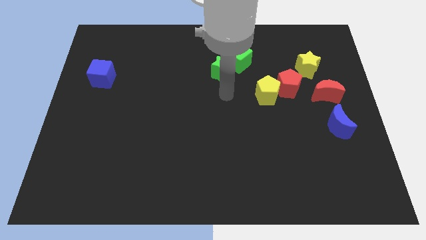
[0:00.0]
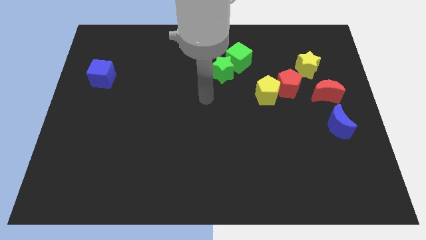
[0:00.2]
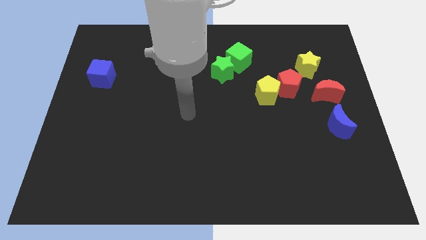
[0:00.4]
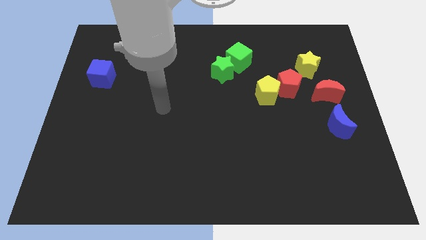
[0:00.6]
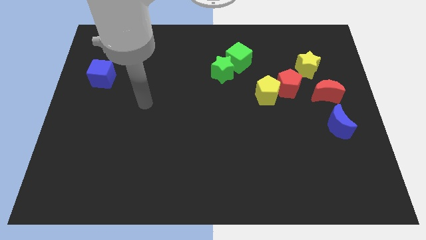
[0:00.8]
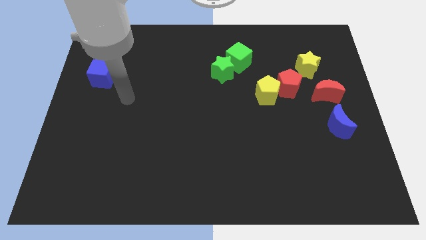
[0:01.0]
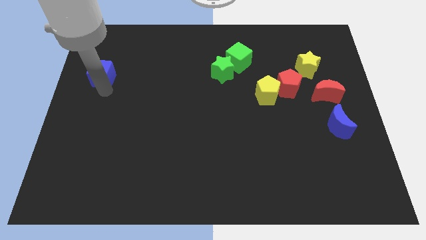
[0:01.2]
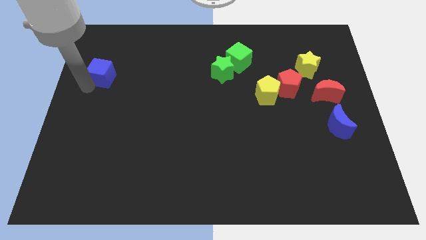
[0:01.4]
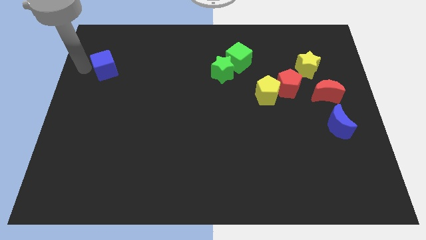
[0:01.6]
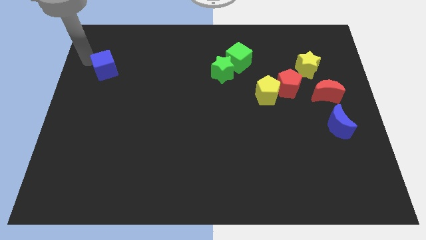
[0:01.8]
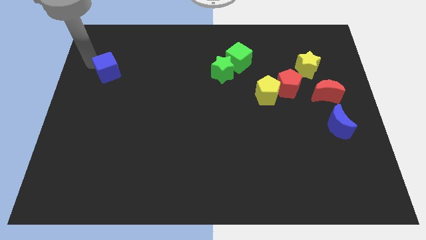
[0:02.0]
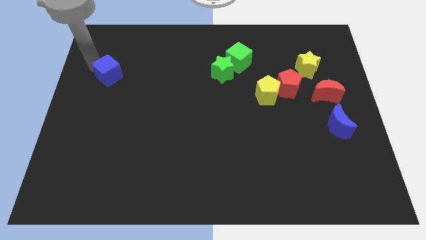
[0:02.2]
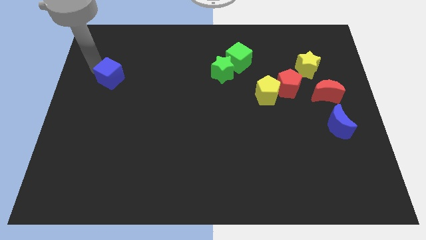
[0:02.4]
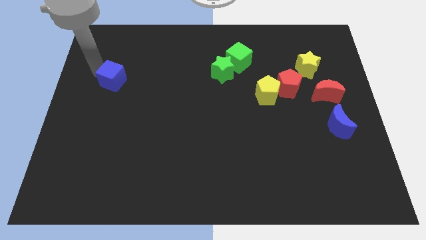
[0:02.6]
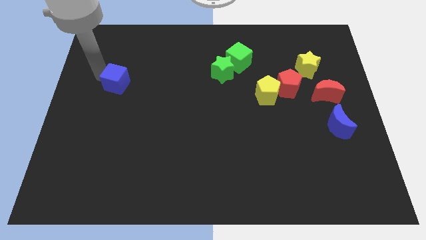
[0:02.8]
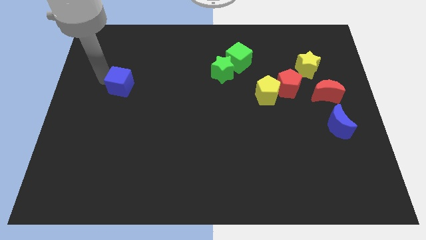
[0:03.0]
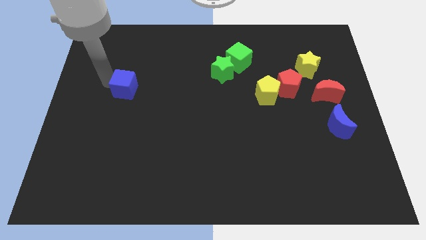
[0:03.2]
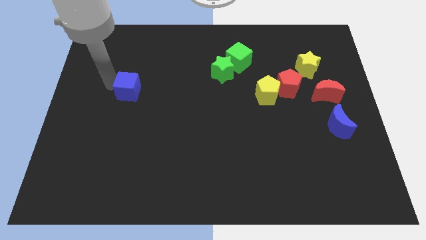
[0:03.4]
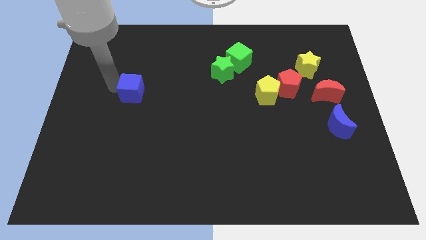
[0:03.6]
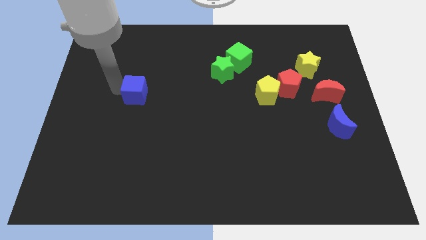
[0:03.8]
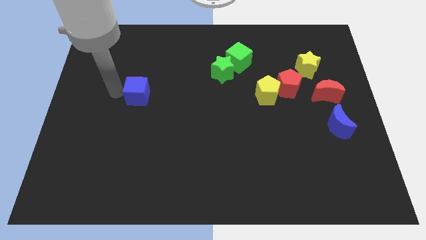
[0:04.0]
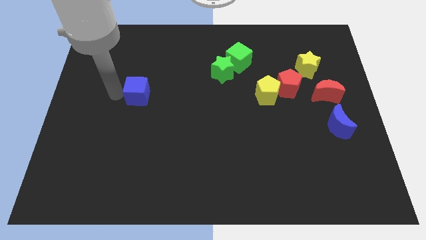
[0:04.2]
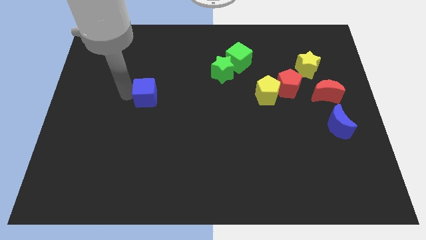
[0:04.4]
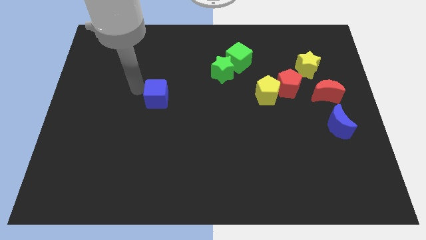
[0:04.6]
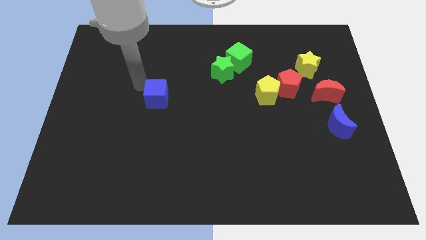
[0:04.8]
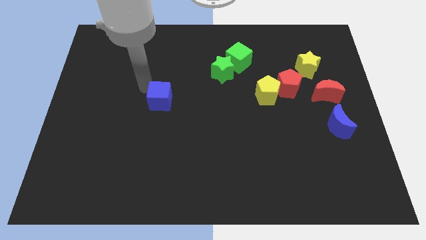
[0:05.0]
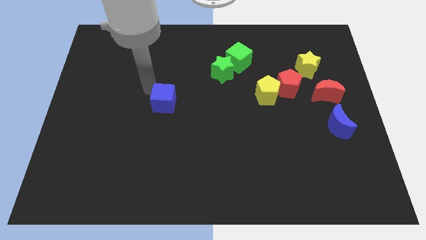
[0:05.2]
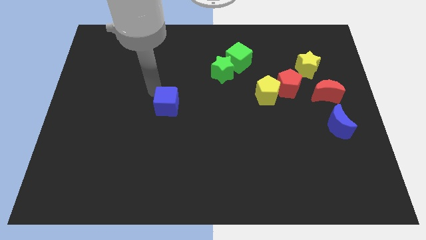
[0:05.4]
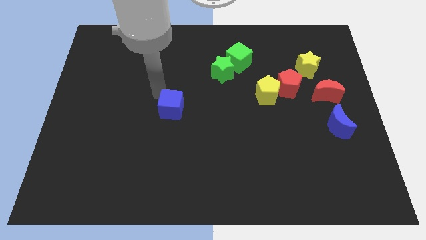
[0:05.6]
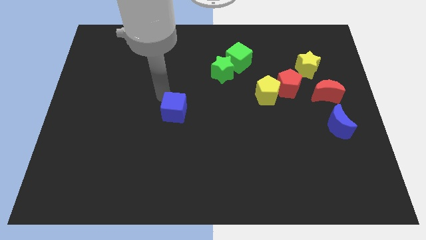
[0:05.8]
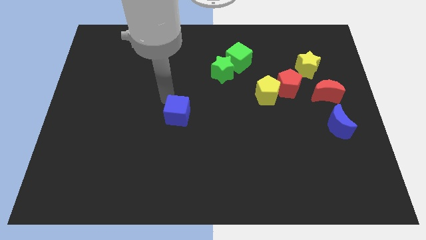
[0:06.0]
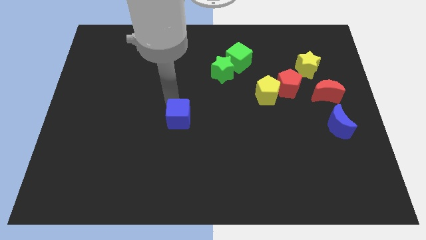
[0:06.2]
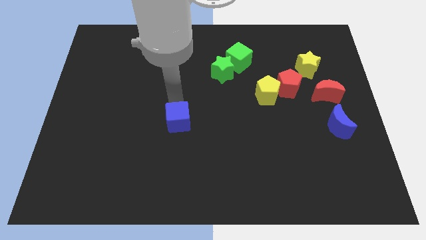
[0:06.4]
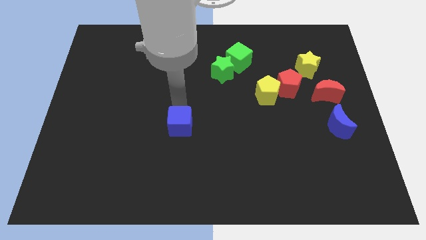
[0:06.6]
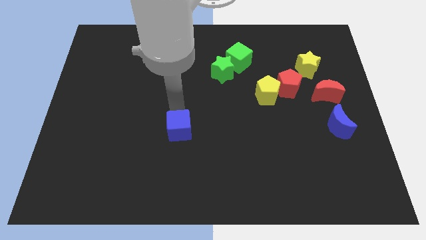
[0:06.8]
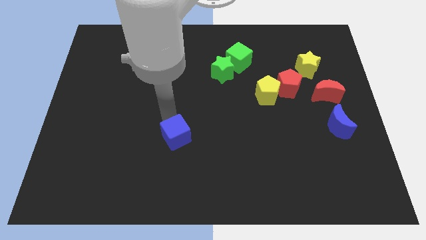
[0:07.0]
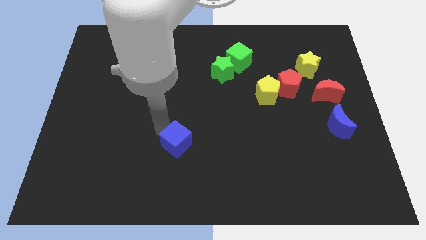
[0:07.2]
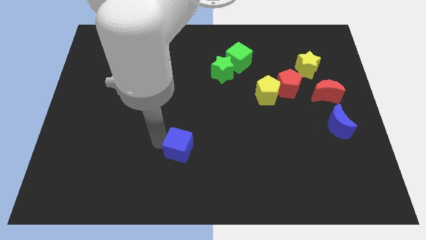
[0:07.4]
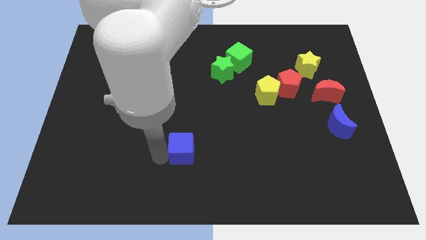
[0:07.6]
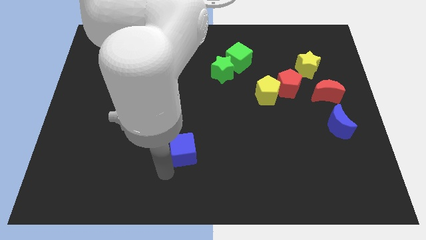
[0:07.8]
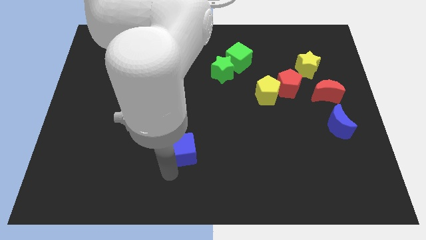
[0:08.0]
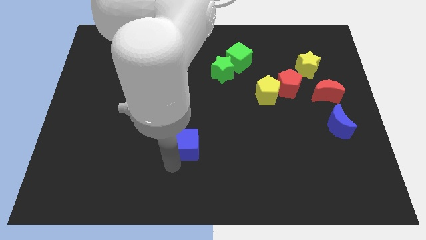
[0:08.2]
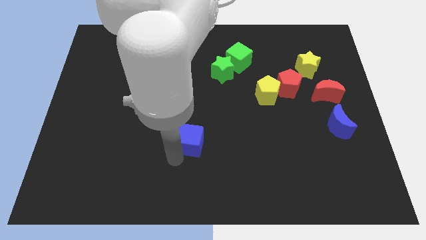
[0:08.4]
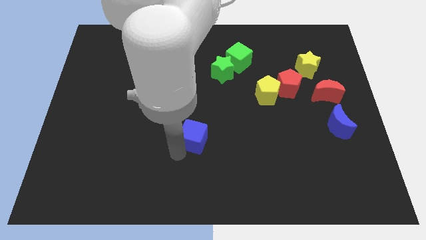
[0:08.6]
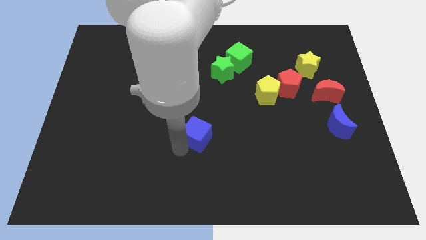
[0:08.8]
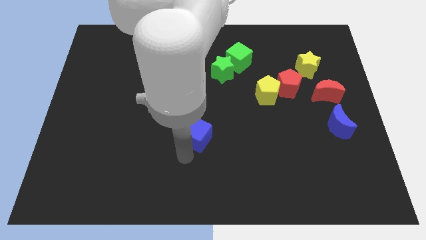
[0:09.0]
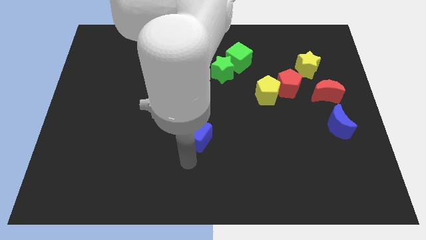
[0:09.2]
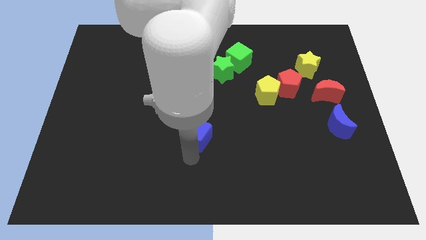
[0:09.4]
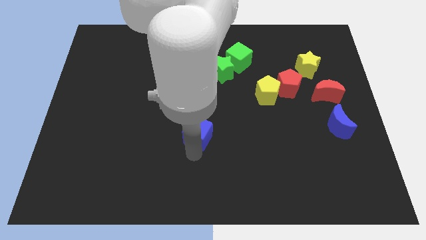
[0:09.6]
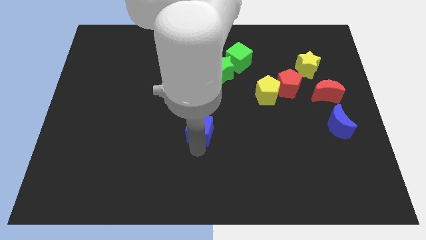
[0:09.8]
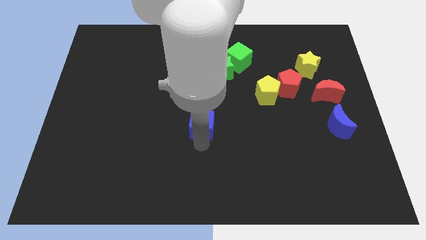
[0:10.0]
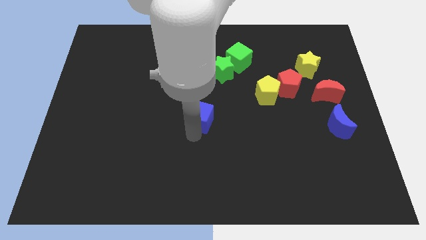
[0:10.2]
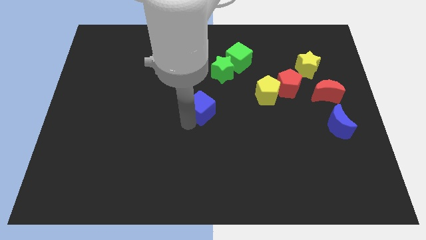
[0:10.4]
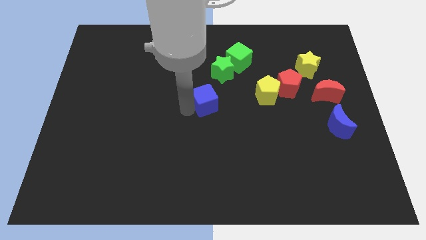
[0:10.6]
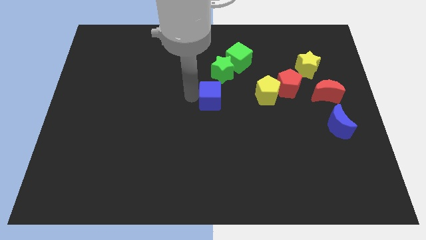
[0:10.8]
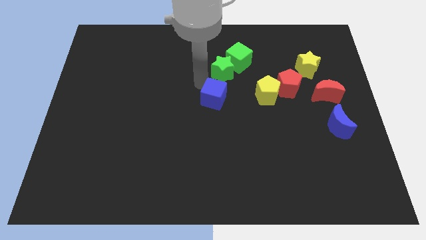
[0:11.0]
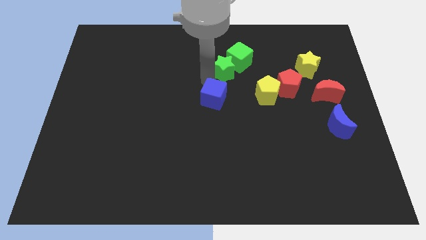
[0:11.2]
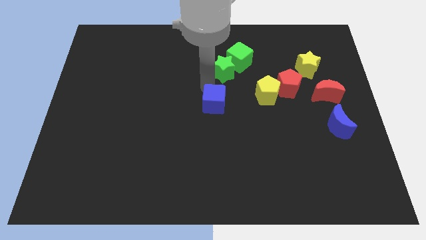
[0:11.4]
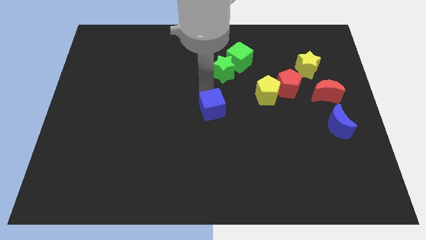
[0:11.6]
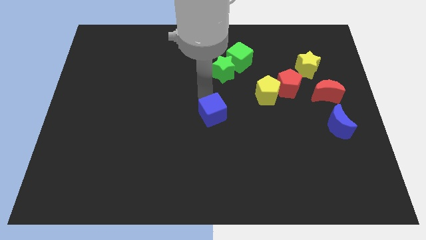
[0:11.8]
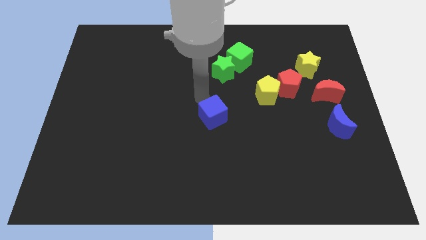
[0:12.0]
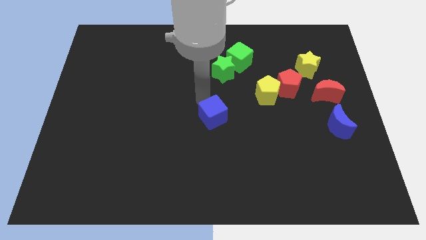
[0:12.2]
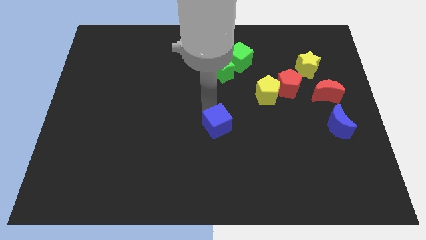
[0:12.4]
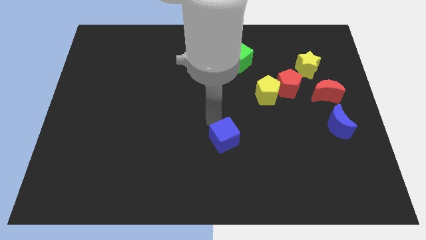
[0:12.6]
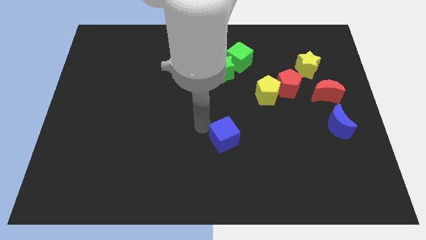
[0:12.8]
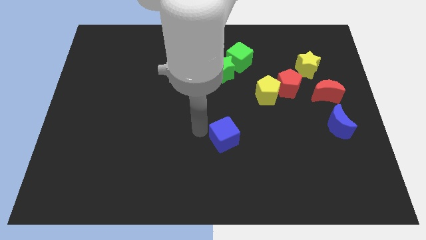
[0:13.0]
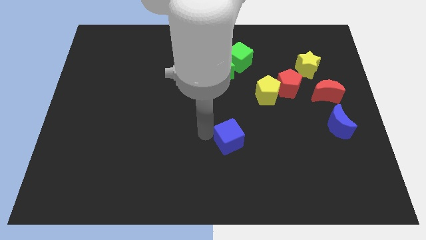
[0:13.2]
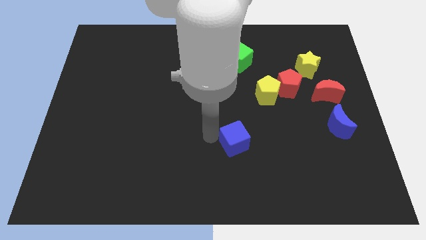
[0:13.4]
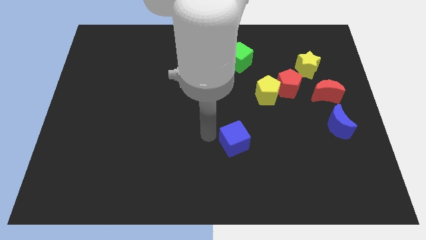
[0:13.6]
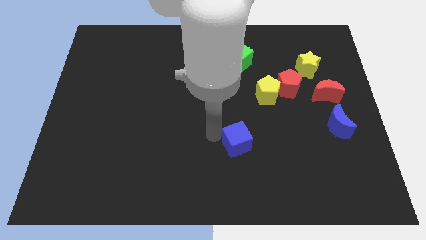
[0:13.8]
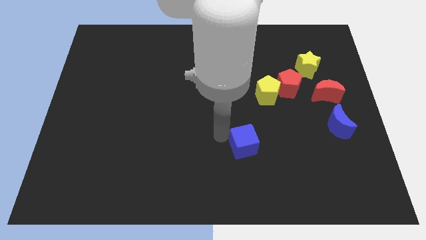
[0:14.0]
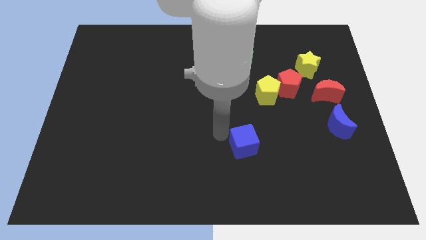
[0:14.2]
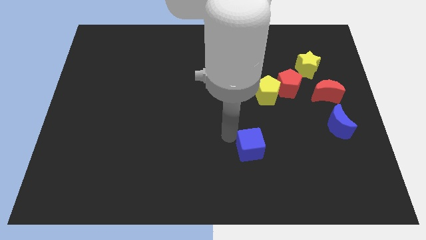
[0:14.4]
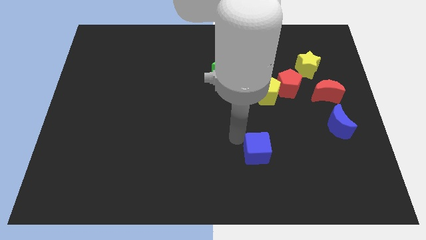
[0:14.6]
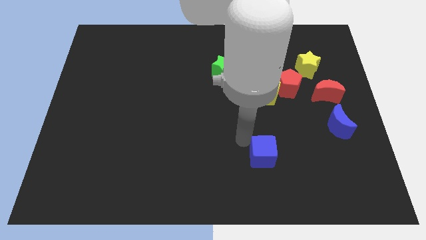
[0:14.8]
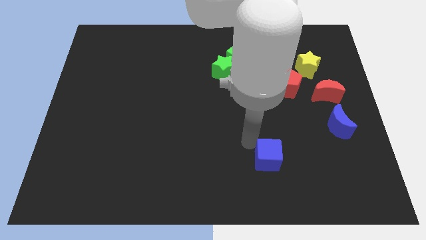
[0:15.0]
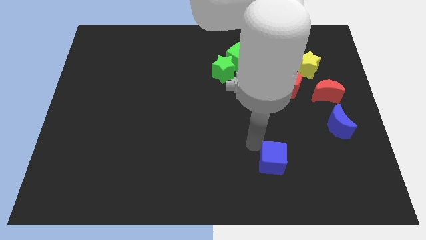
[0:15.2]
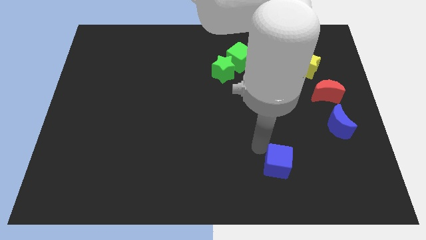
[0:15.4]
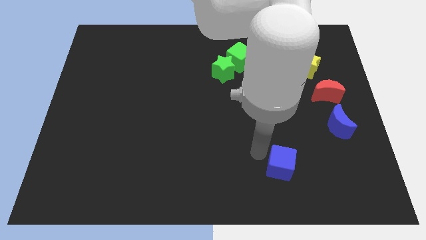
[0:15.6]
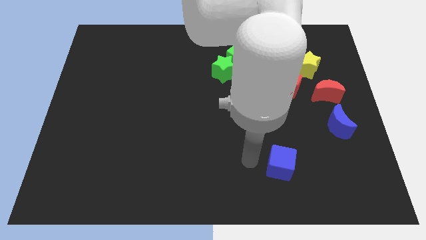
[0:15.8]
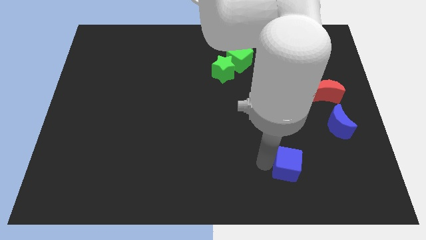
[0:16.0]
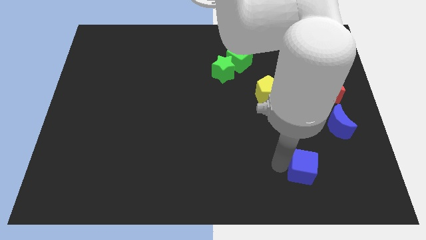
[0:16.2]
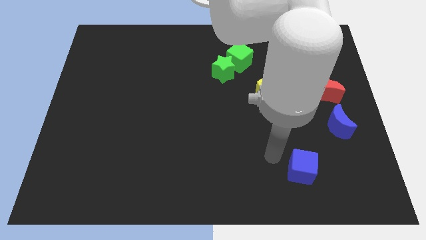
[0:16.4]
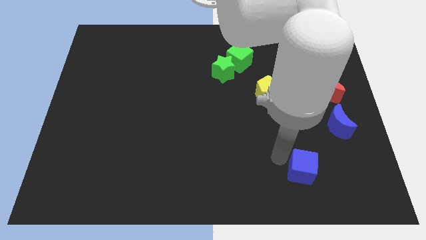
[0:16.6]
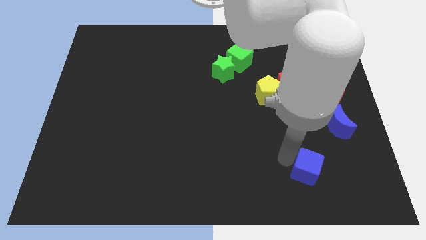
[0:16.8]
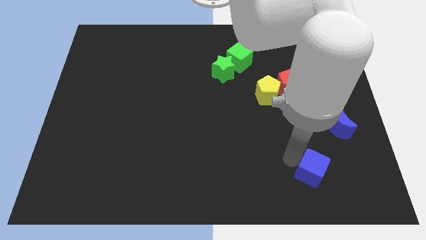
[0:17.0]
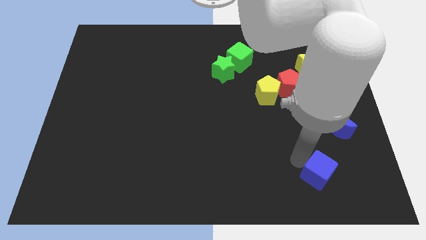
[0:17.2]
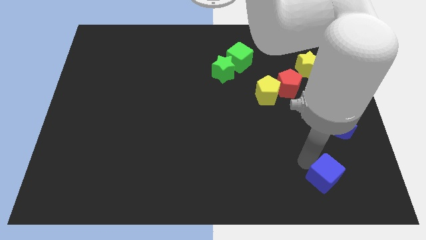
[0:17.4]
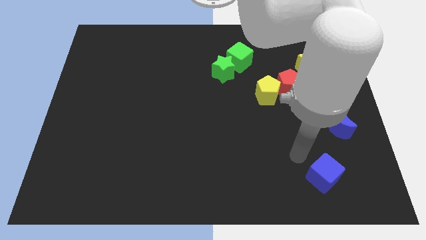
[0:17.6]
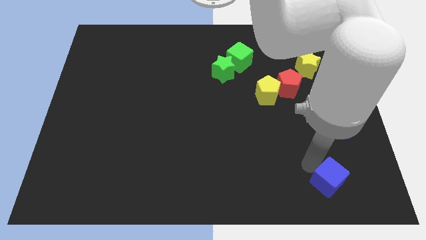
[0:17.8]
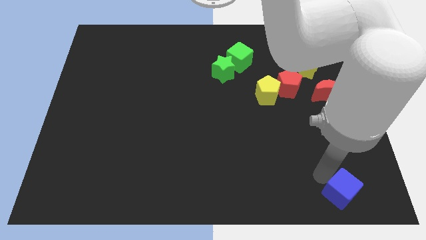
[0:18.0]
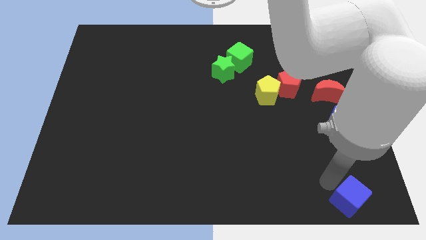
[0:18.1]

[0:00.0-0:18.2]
put the blue cube to the bottom right
